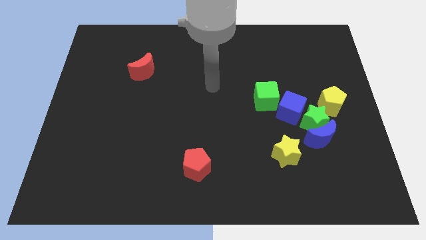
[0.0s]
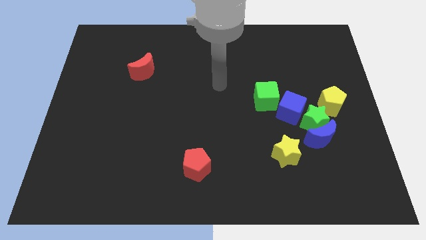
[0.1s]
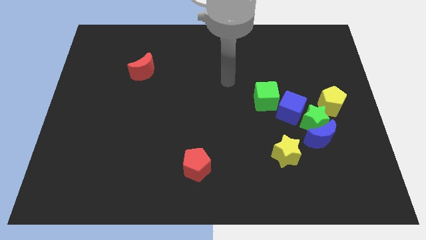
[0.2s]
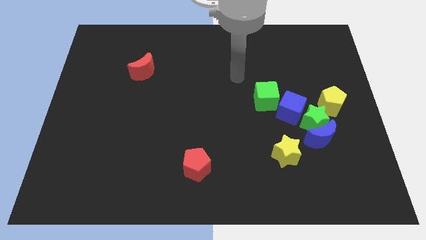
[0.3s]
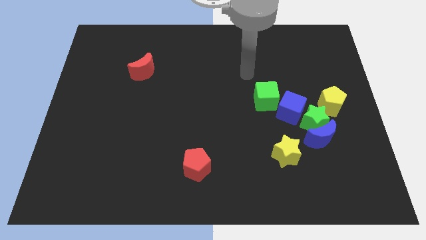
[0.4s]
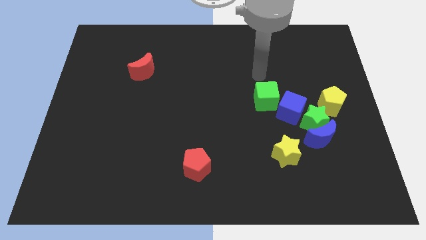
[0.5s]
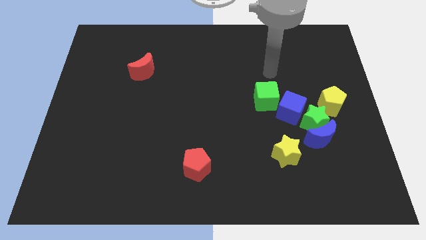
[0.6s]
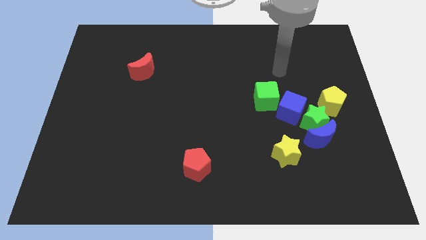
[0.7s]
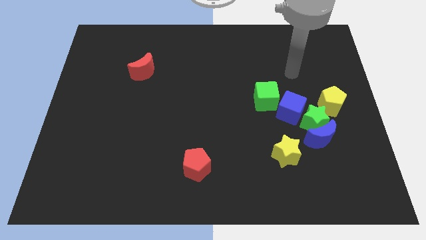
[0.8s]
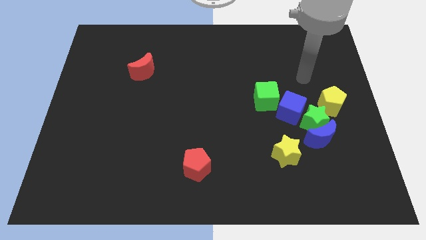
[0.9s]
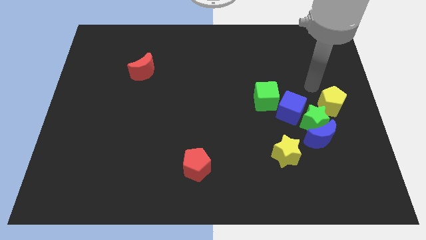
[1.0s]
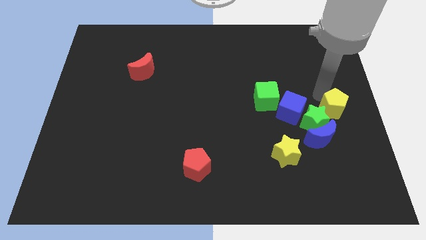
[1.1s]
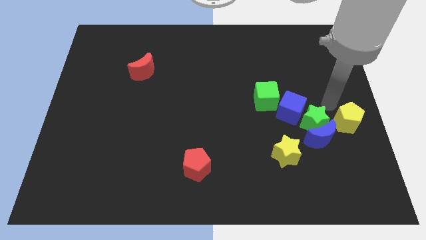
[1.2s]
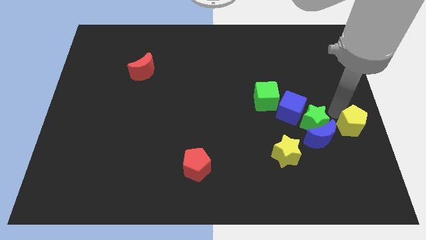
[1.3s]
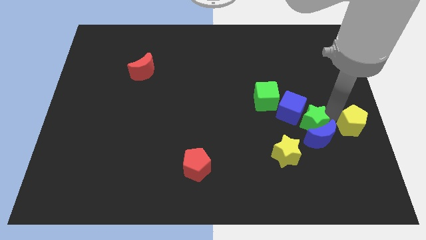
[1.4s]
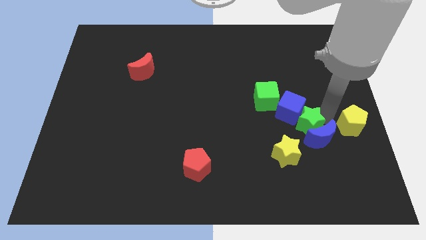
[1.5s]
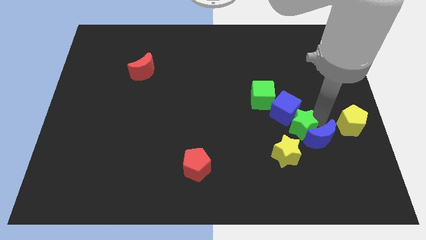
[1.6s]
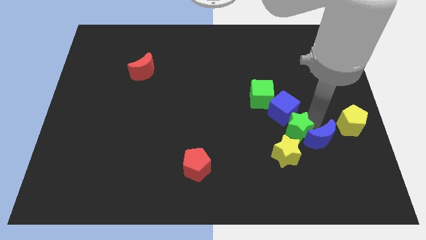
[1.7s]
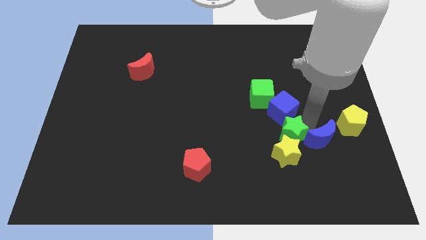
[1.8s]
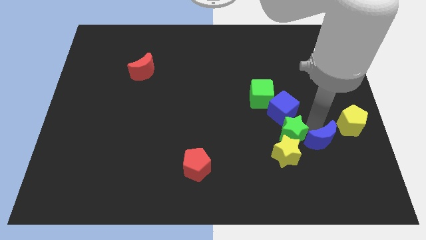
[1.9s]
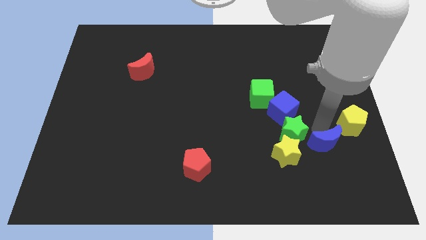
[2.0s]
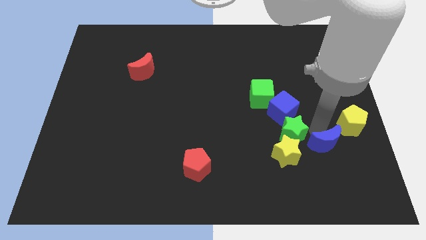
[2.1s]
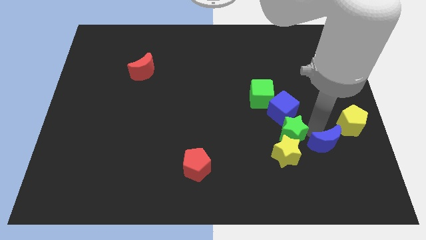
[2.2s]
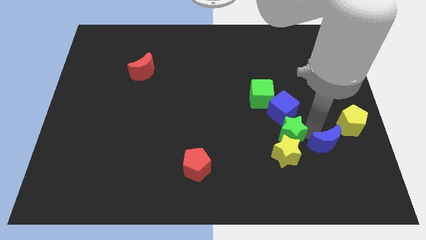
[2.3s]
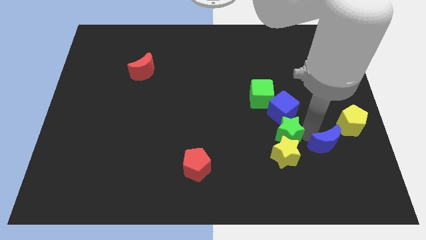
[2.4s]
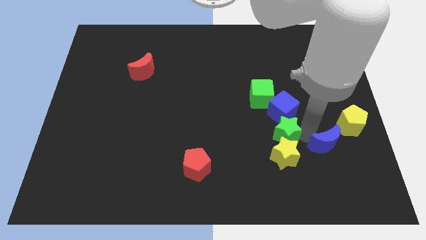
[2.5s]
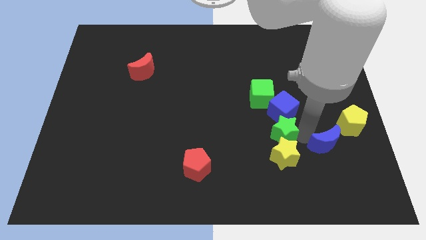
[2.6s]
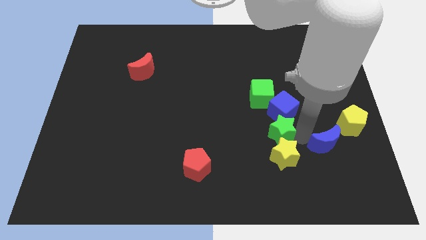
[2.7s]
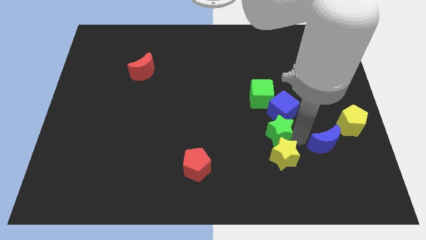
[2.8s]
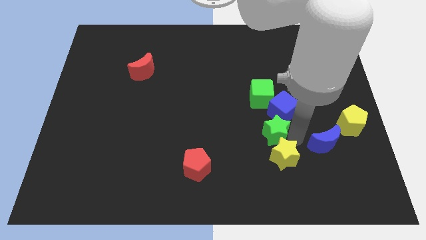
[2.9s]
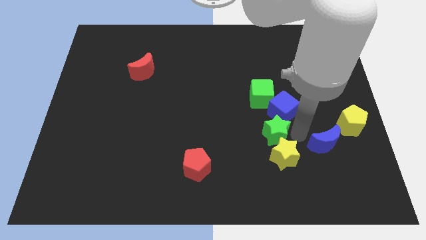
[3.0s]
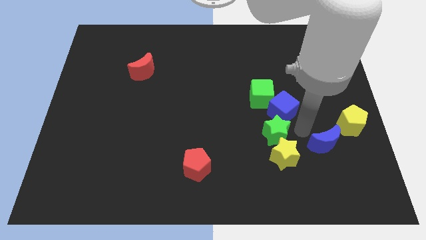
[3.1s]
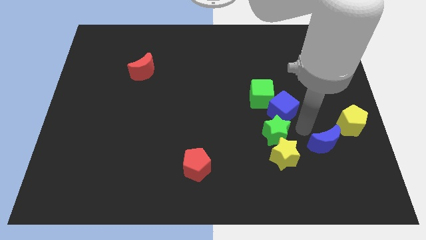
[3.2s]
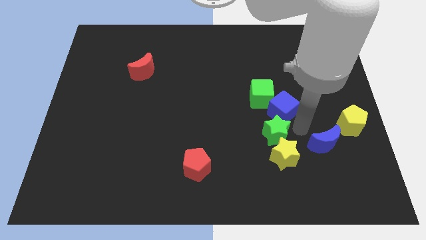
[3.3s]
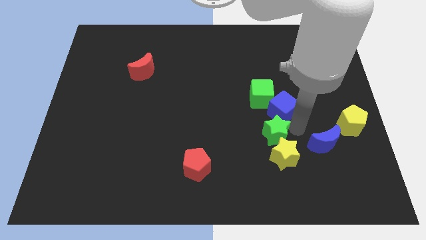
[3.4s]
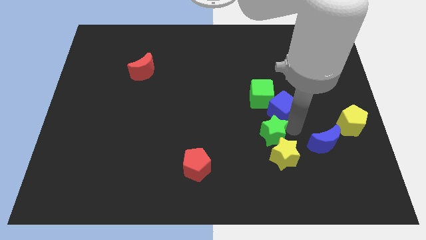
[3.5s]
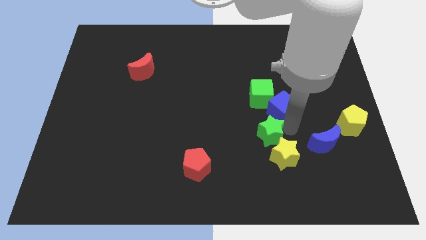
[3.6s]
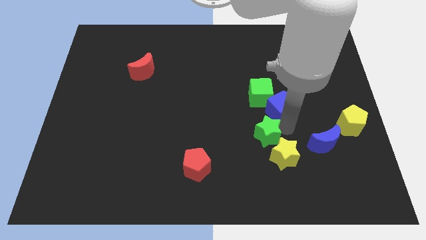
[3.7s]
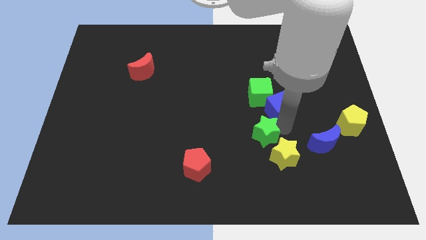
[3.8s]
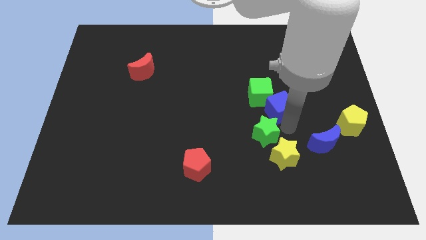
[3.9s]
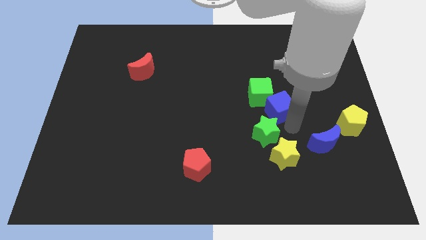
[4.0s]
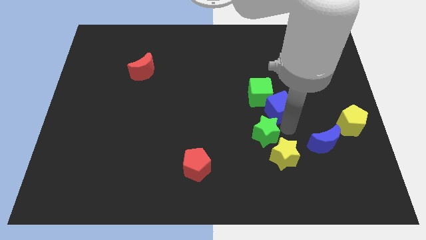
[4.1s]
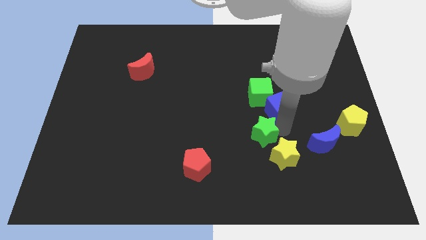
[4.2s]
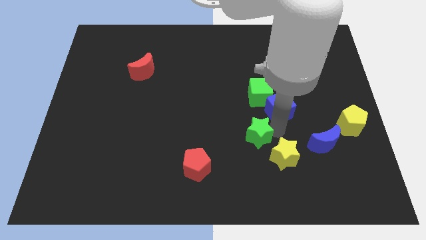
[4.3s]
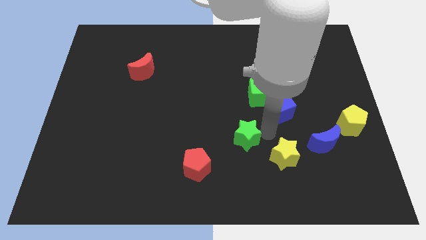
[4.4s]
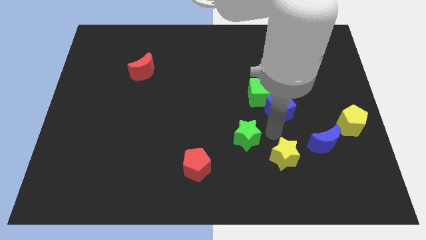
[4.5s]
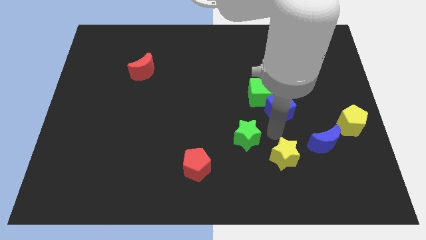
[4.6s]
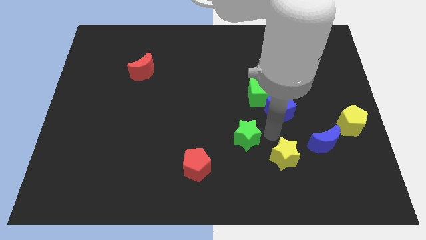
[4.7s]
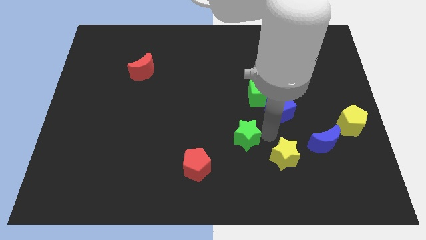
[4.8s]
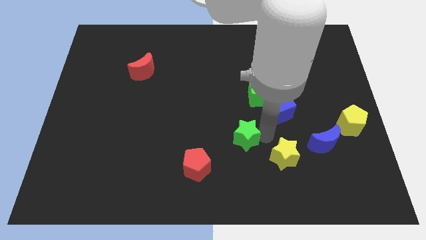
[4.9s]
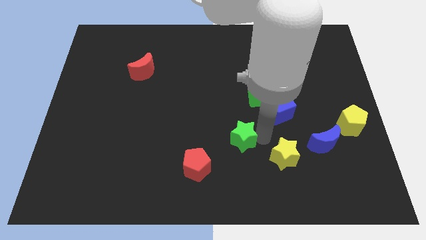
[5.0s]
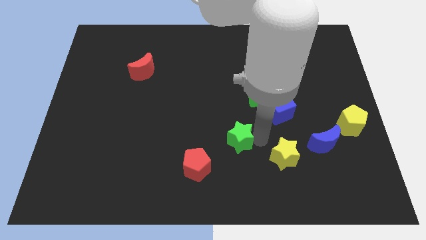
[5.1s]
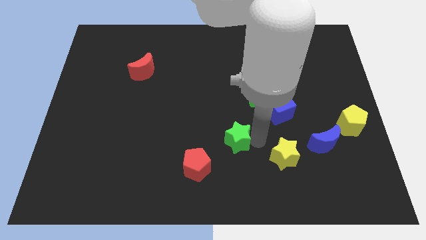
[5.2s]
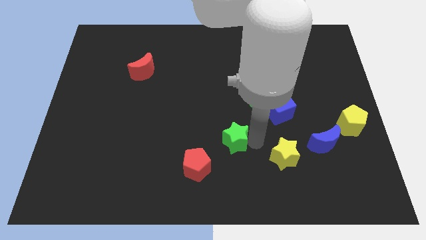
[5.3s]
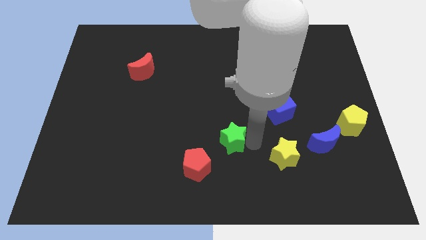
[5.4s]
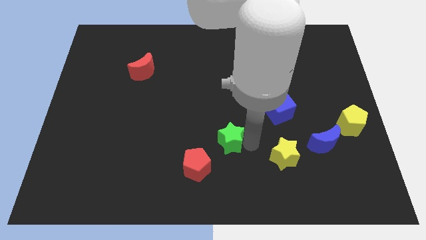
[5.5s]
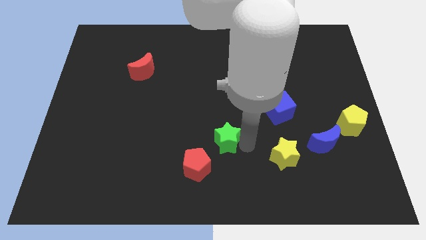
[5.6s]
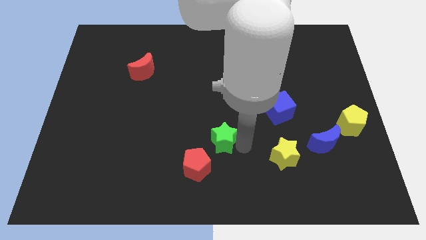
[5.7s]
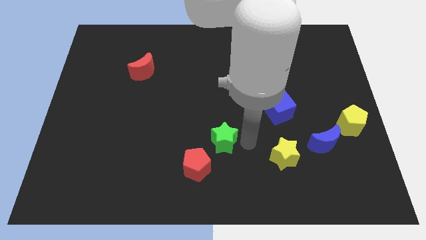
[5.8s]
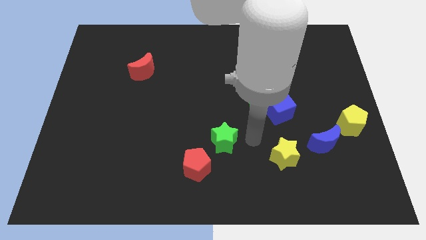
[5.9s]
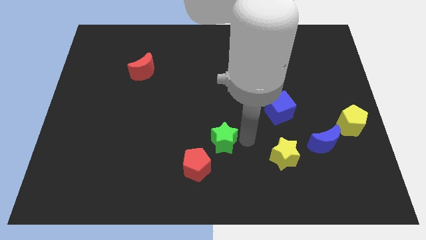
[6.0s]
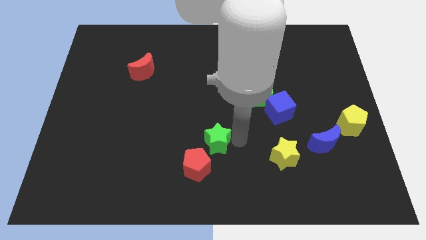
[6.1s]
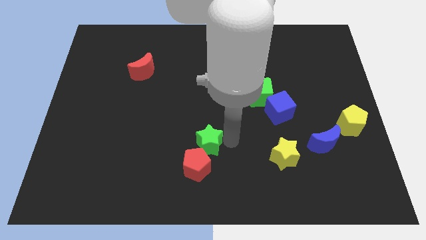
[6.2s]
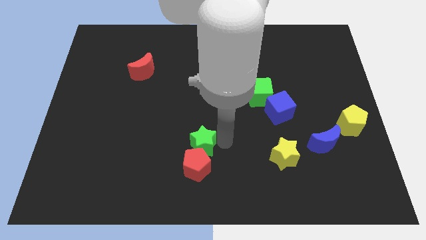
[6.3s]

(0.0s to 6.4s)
put the green star to the top left side of the red pentagon

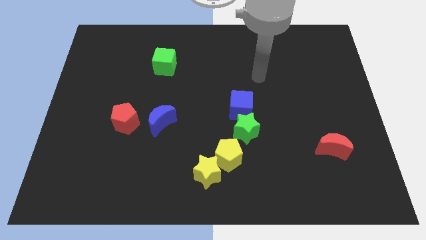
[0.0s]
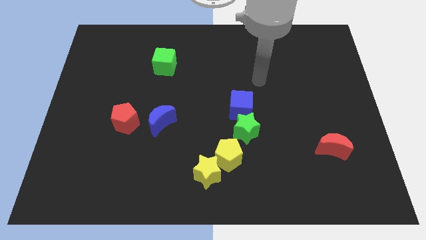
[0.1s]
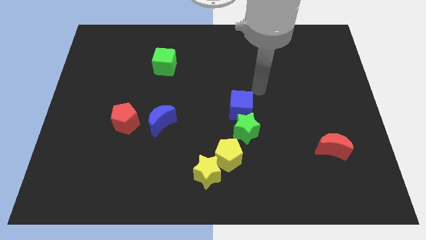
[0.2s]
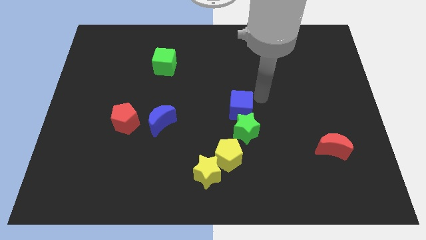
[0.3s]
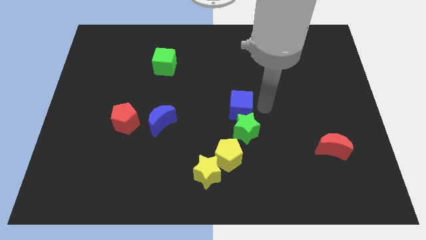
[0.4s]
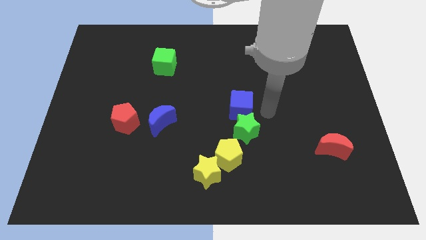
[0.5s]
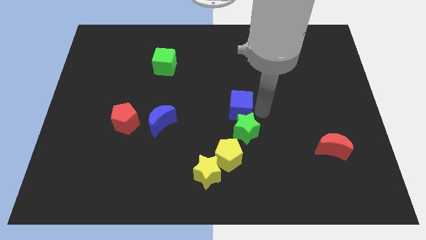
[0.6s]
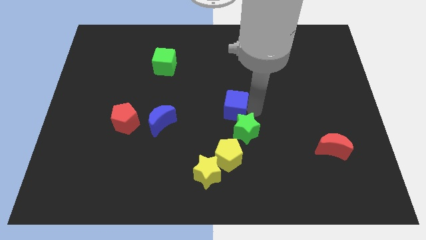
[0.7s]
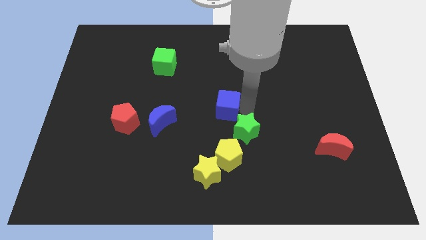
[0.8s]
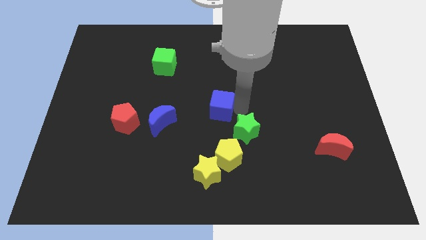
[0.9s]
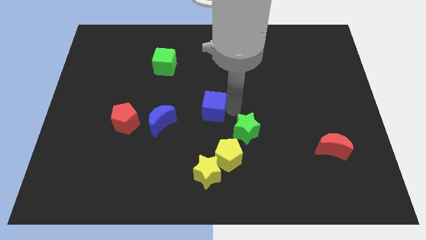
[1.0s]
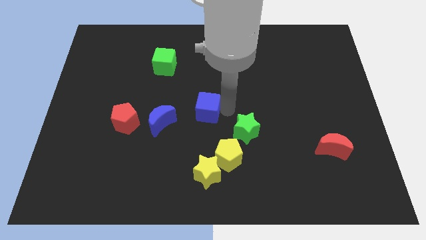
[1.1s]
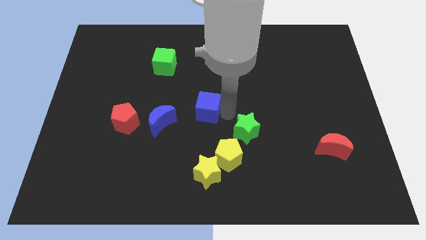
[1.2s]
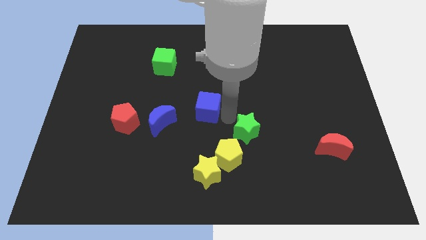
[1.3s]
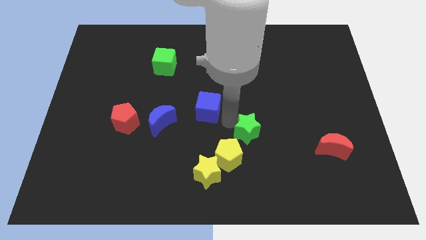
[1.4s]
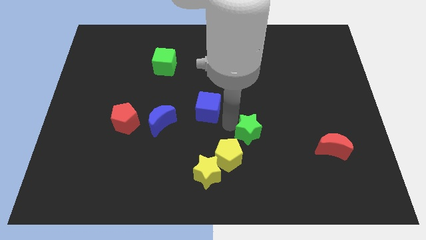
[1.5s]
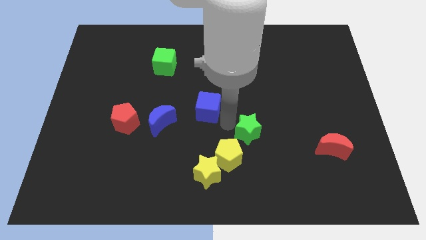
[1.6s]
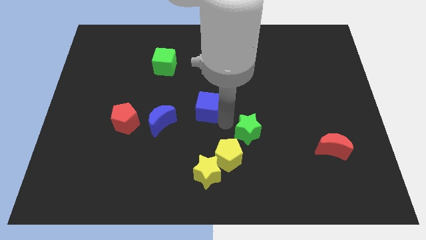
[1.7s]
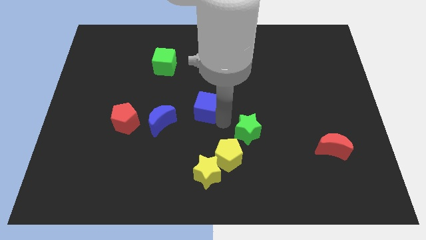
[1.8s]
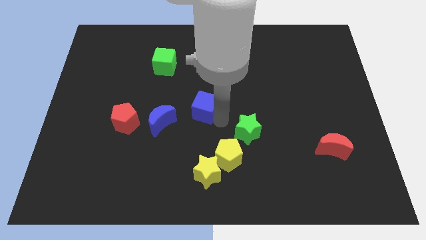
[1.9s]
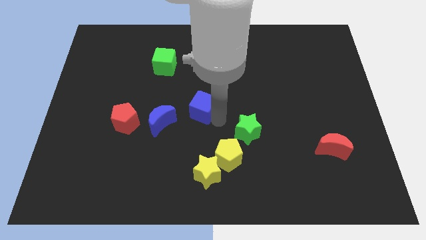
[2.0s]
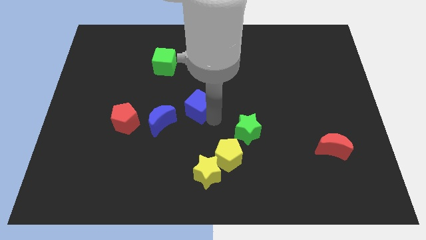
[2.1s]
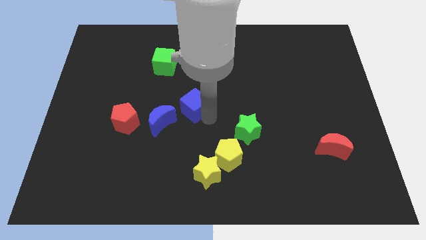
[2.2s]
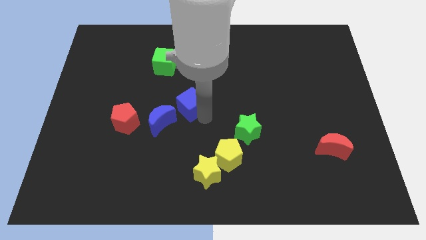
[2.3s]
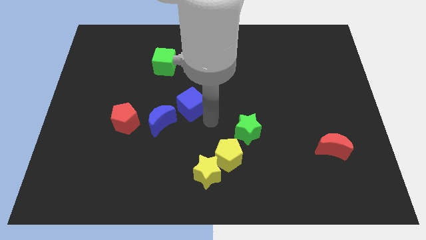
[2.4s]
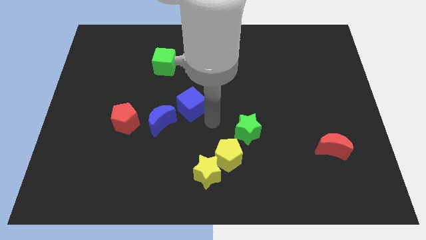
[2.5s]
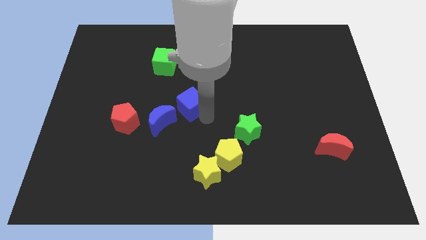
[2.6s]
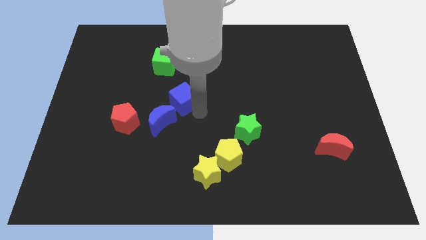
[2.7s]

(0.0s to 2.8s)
push the blue cube above the blue moon
